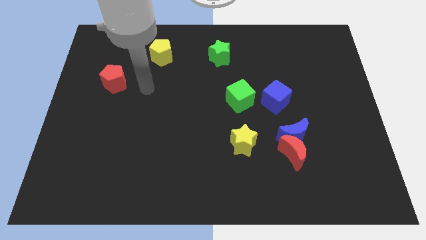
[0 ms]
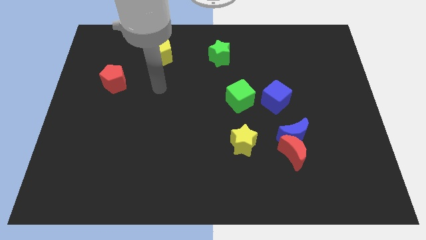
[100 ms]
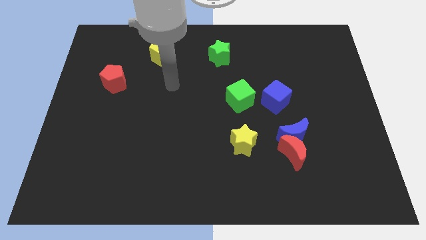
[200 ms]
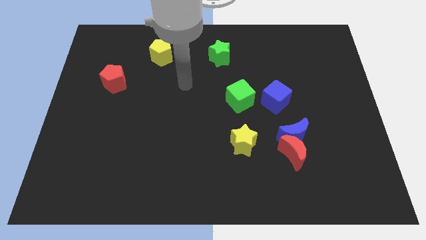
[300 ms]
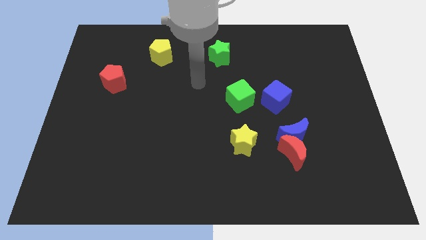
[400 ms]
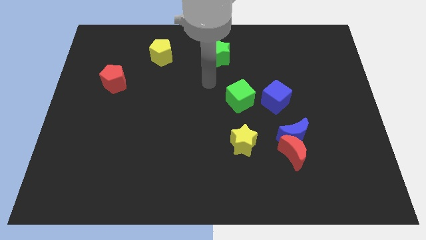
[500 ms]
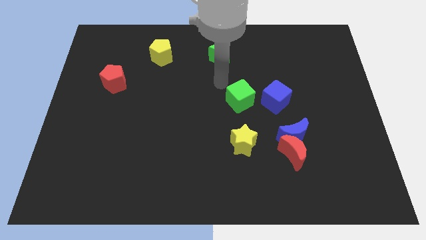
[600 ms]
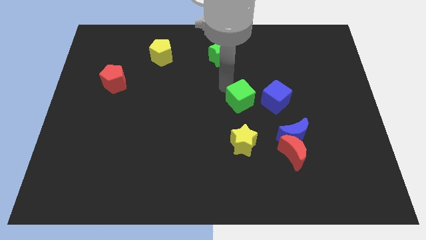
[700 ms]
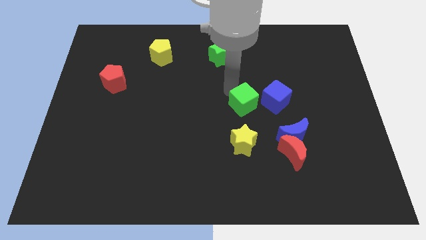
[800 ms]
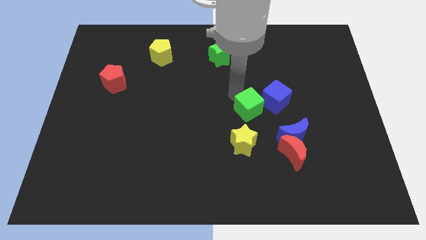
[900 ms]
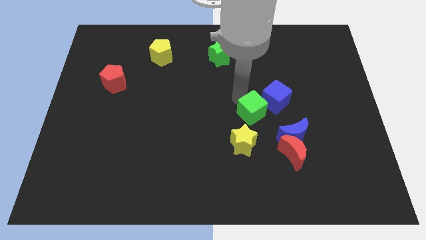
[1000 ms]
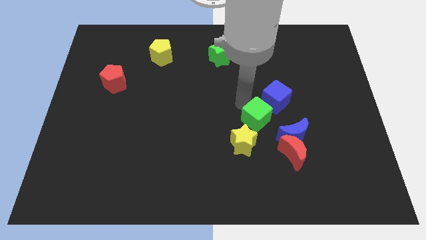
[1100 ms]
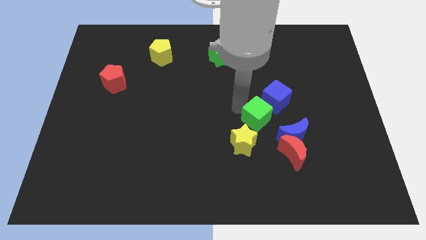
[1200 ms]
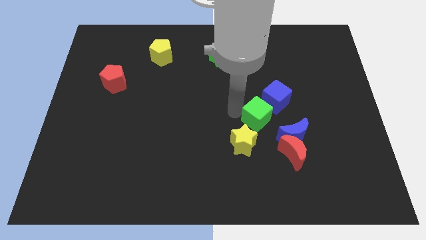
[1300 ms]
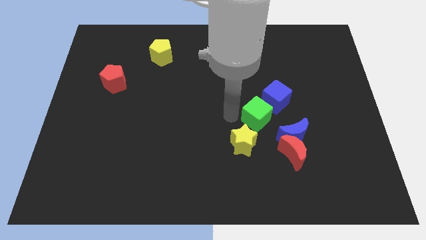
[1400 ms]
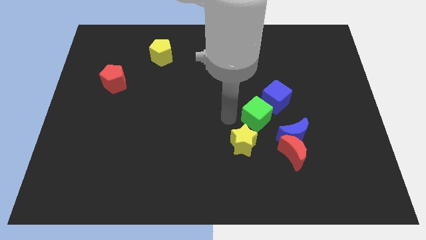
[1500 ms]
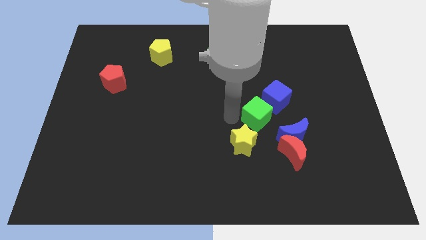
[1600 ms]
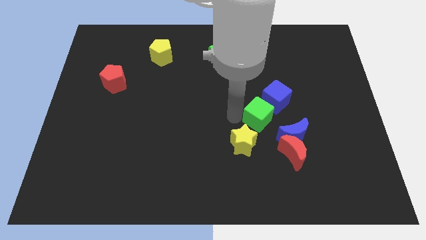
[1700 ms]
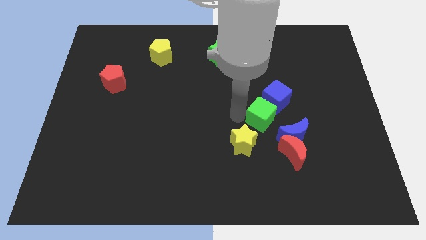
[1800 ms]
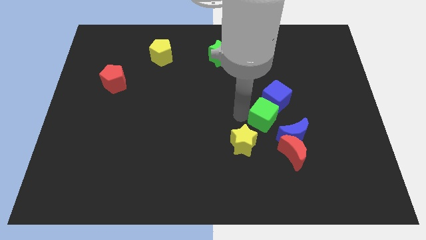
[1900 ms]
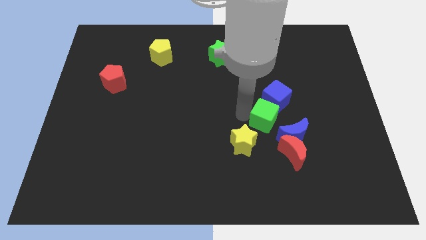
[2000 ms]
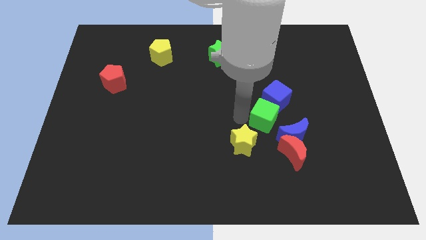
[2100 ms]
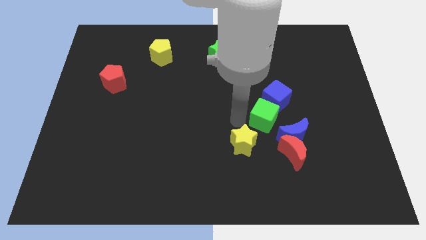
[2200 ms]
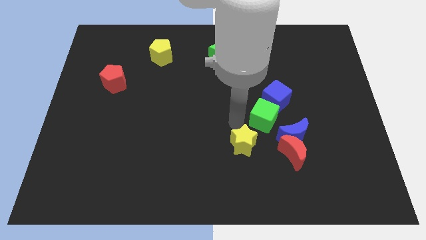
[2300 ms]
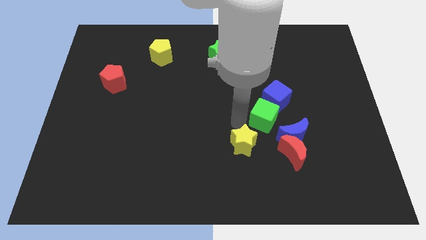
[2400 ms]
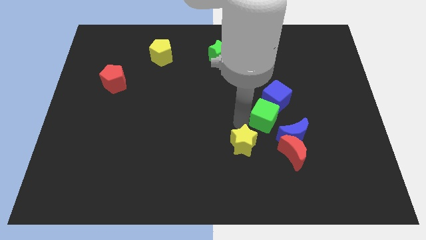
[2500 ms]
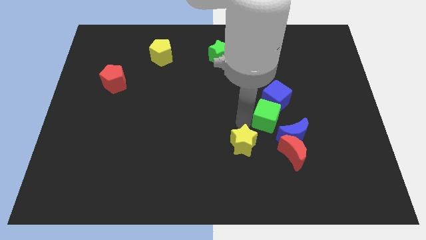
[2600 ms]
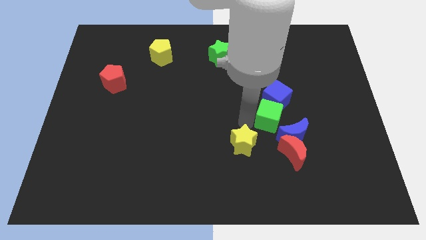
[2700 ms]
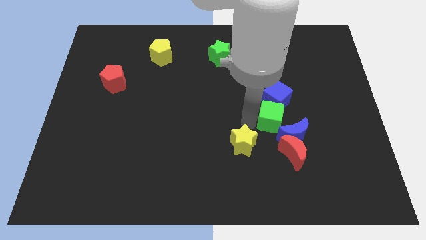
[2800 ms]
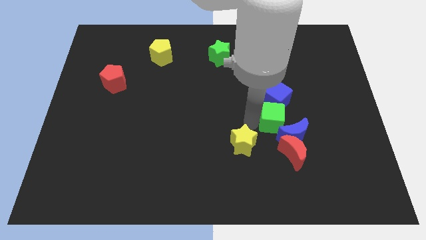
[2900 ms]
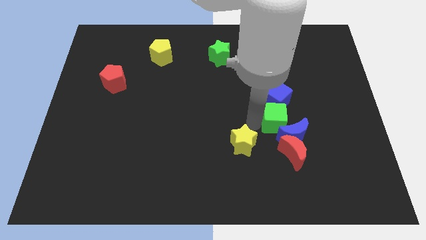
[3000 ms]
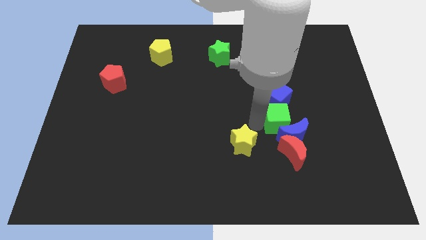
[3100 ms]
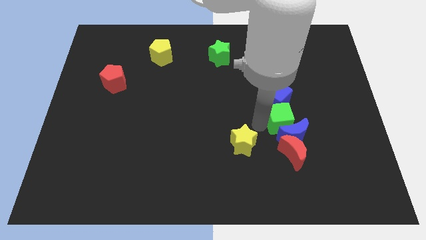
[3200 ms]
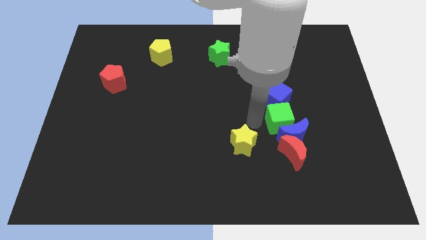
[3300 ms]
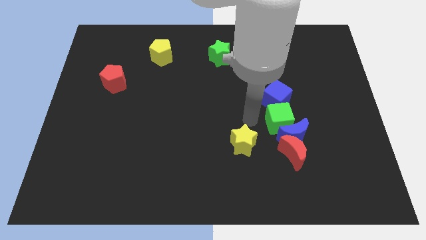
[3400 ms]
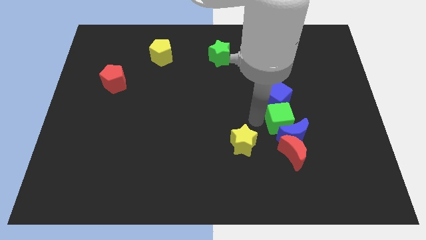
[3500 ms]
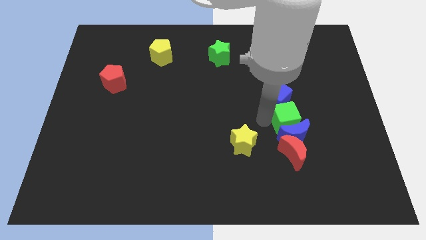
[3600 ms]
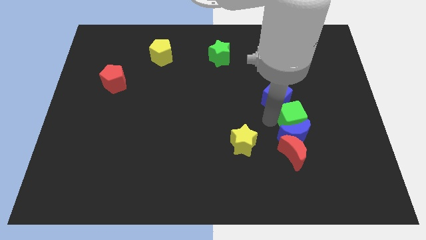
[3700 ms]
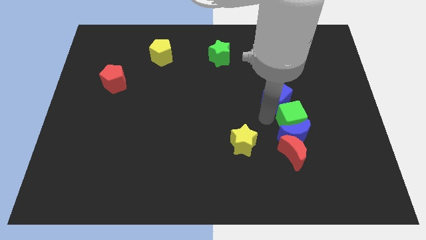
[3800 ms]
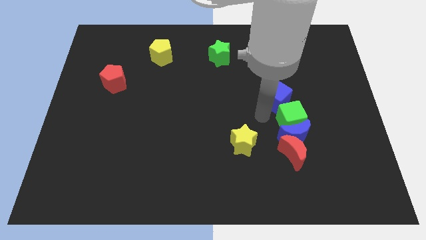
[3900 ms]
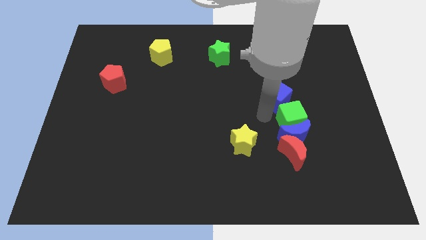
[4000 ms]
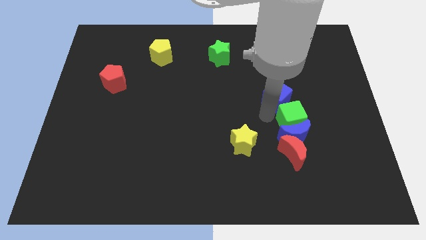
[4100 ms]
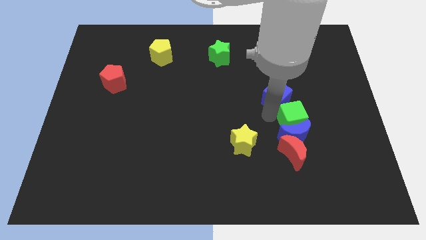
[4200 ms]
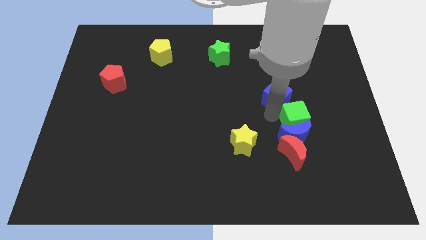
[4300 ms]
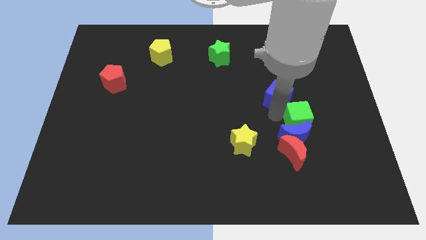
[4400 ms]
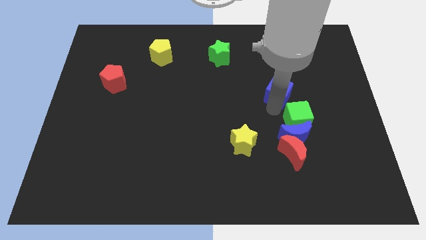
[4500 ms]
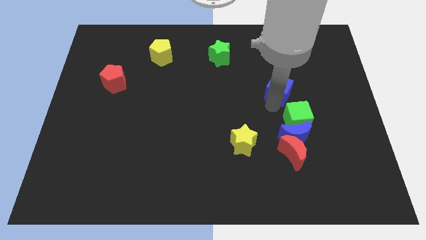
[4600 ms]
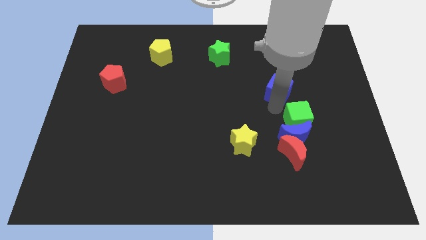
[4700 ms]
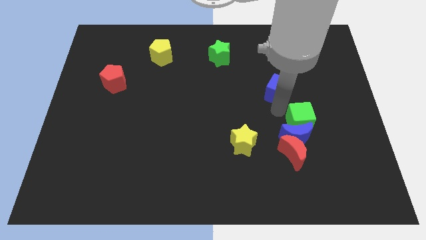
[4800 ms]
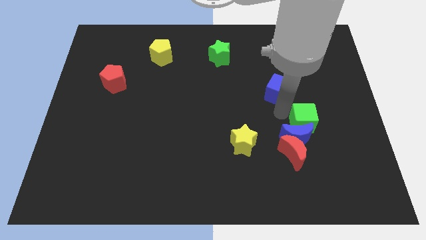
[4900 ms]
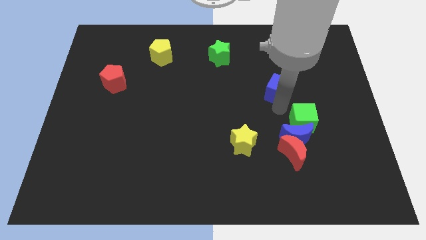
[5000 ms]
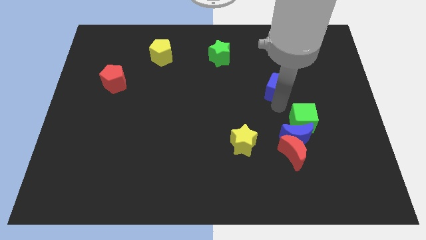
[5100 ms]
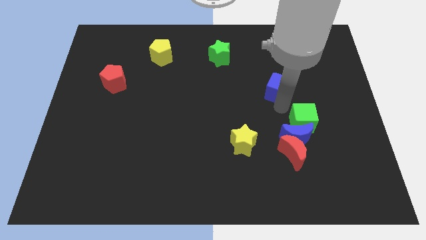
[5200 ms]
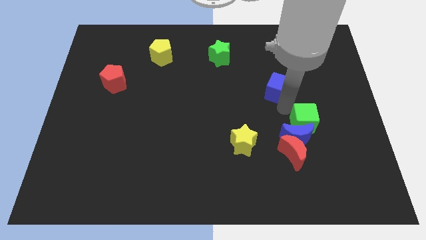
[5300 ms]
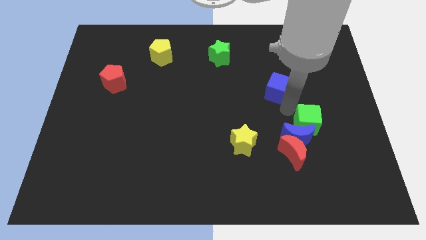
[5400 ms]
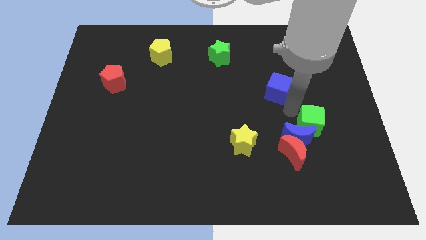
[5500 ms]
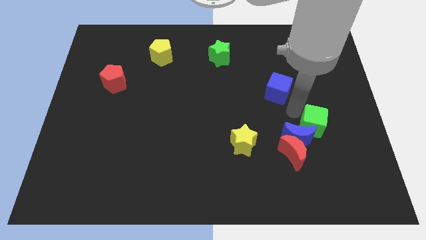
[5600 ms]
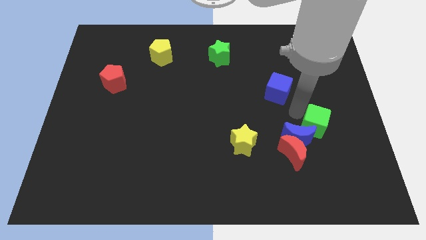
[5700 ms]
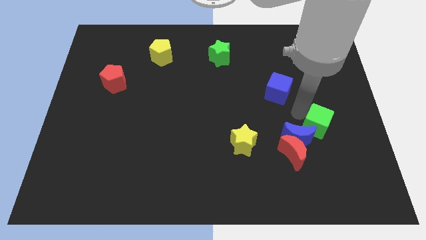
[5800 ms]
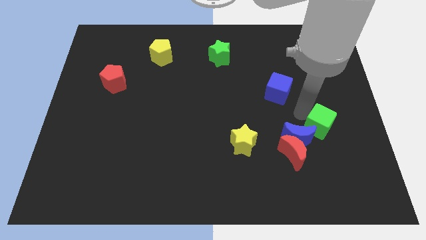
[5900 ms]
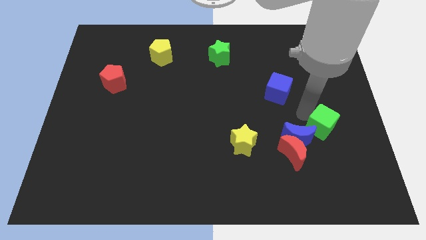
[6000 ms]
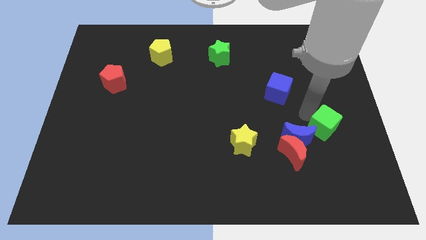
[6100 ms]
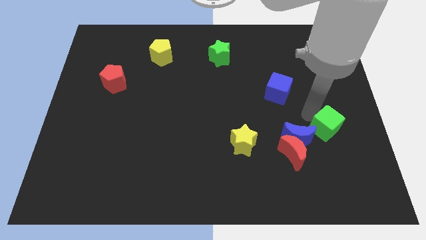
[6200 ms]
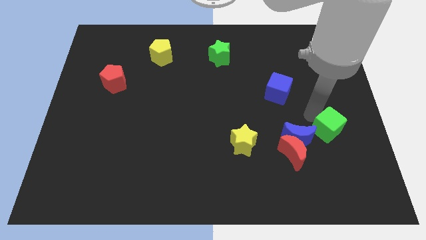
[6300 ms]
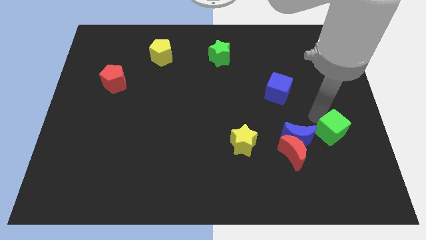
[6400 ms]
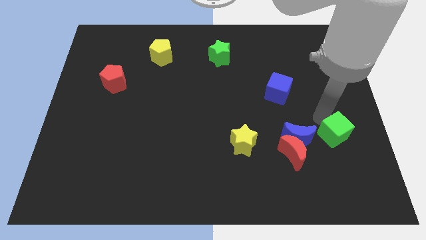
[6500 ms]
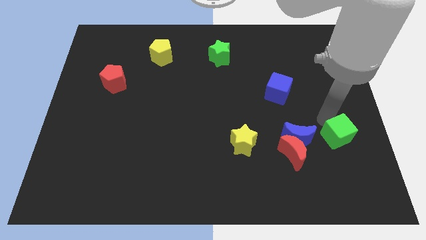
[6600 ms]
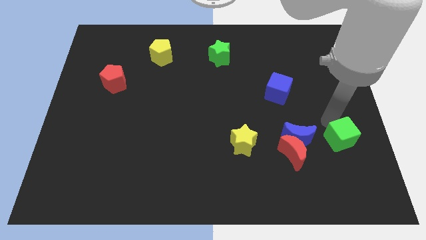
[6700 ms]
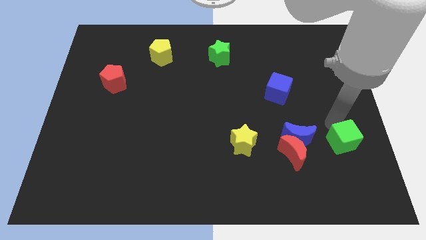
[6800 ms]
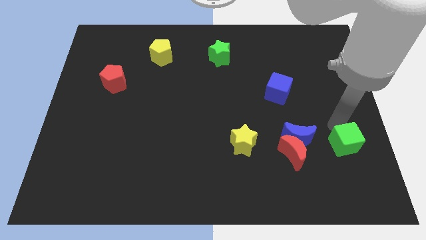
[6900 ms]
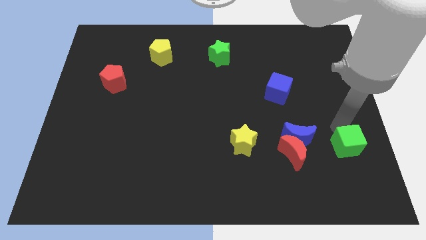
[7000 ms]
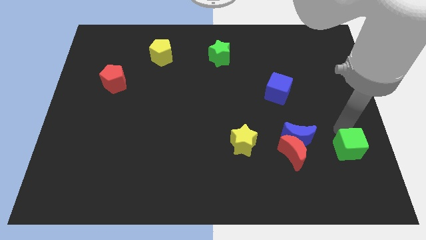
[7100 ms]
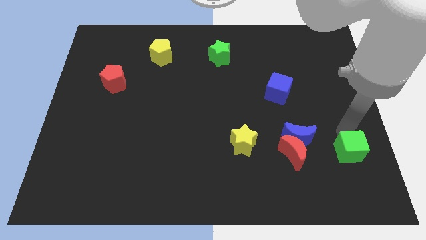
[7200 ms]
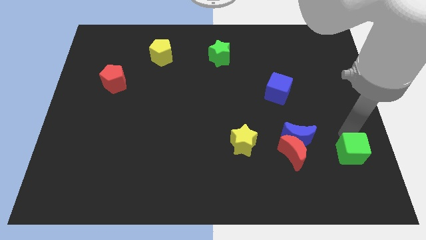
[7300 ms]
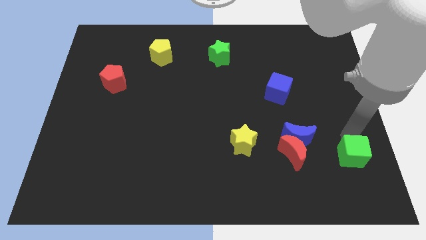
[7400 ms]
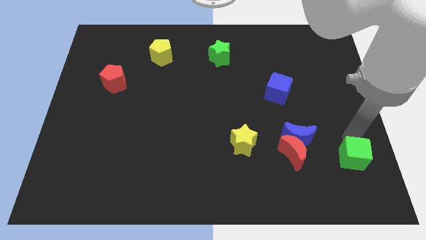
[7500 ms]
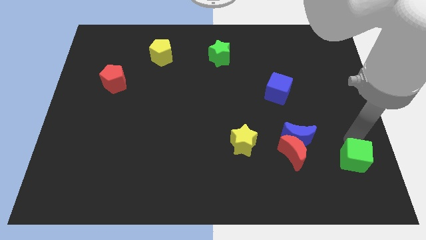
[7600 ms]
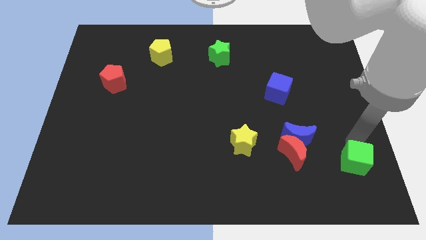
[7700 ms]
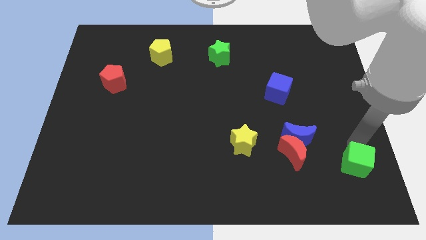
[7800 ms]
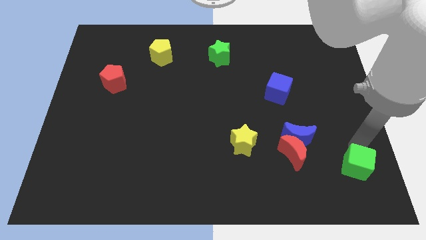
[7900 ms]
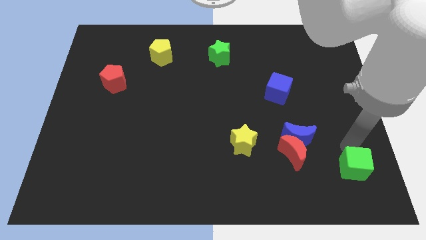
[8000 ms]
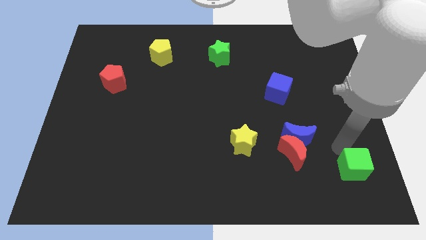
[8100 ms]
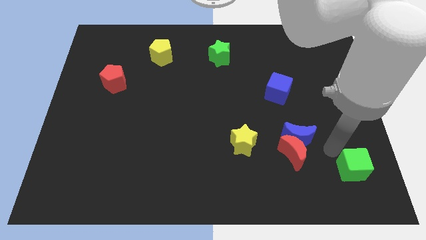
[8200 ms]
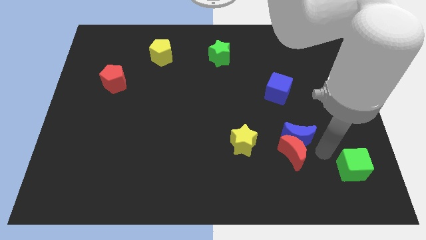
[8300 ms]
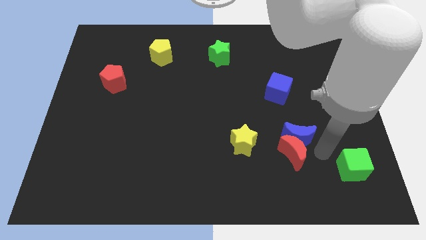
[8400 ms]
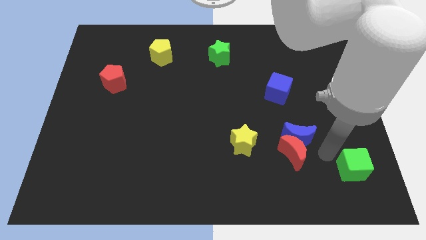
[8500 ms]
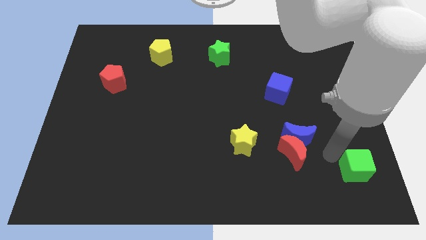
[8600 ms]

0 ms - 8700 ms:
put the green cube to the bottom right of the board
